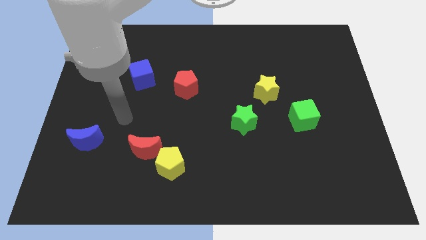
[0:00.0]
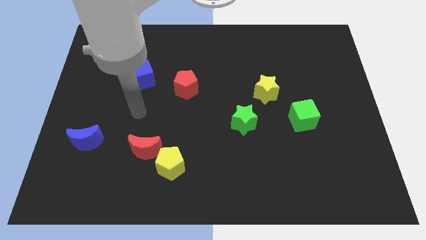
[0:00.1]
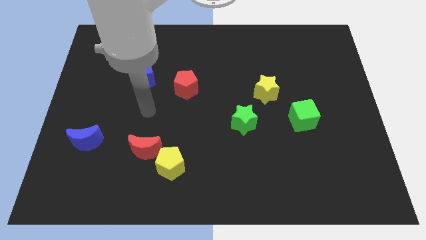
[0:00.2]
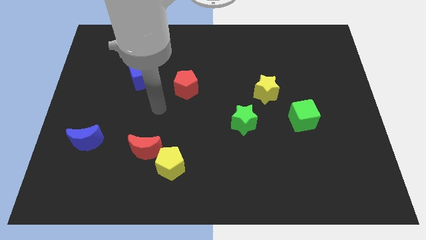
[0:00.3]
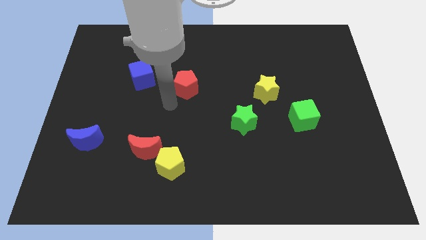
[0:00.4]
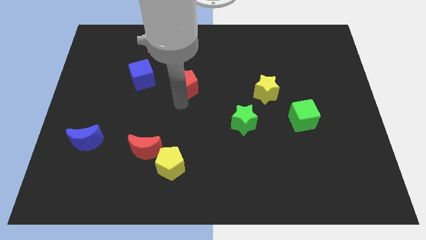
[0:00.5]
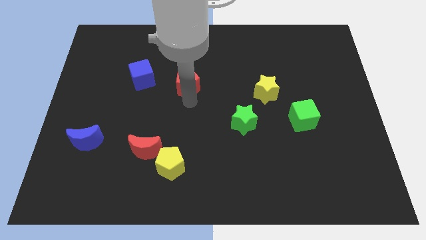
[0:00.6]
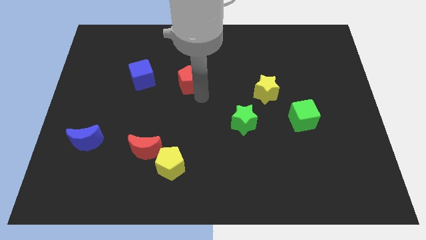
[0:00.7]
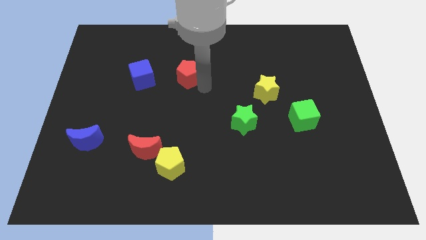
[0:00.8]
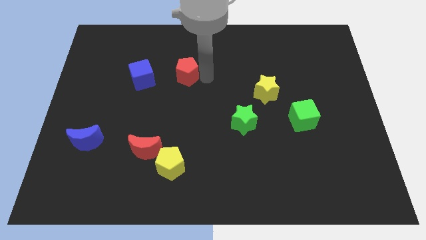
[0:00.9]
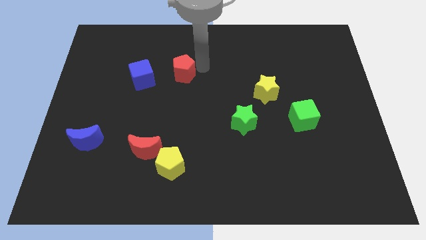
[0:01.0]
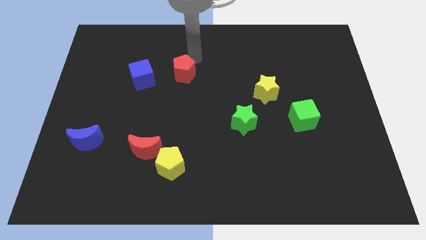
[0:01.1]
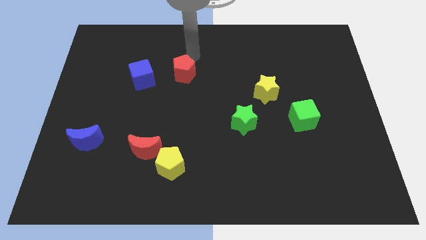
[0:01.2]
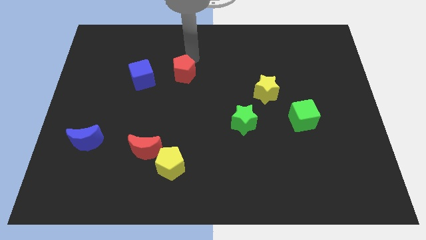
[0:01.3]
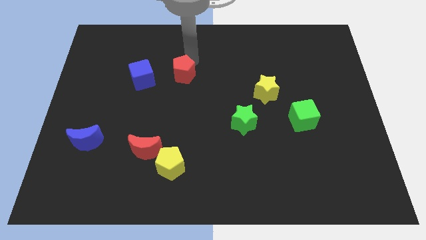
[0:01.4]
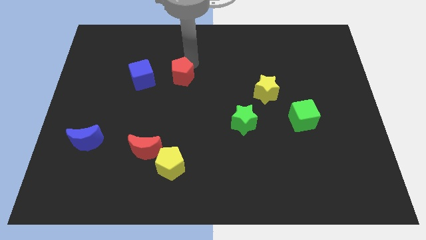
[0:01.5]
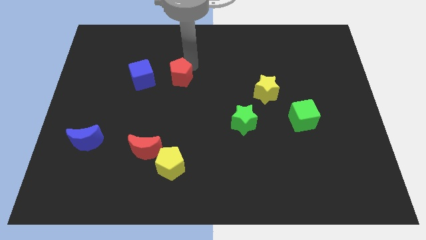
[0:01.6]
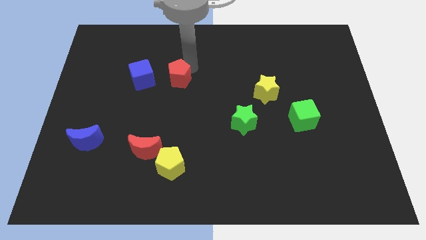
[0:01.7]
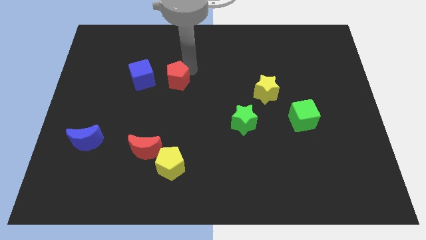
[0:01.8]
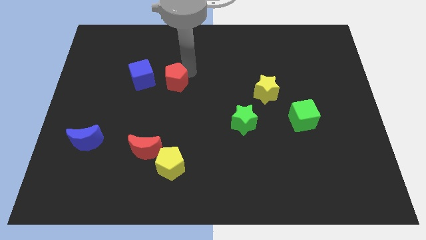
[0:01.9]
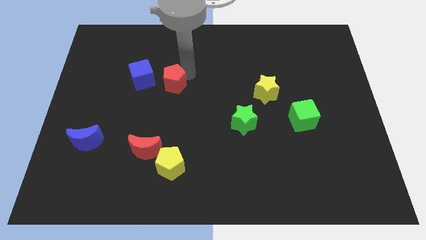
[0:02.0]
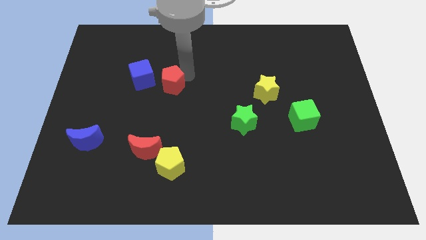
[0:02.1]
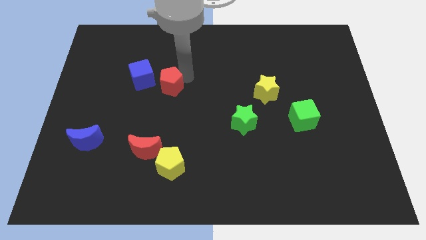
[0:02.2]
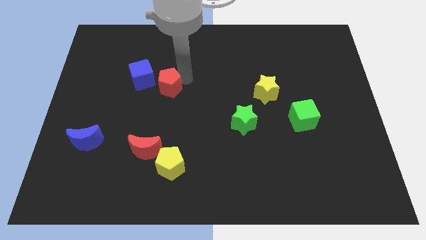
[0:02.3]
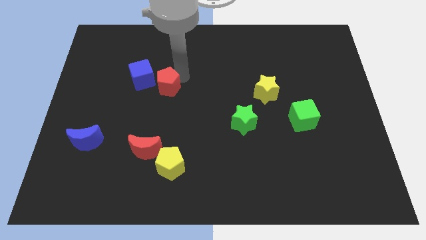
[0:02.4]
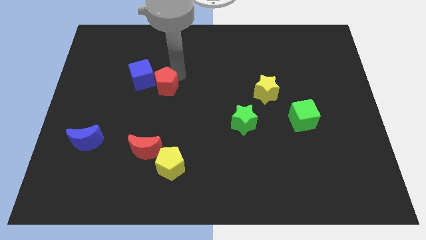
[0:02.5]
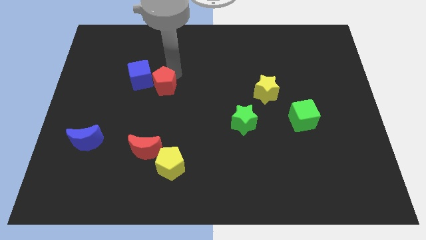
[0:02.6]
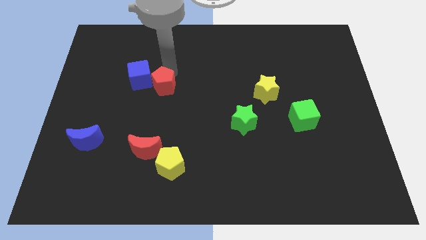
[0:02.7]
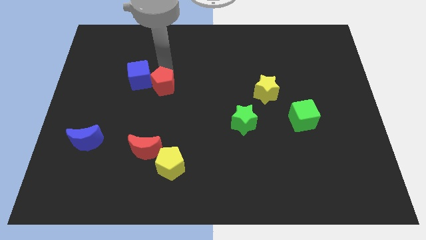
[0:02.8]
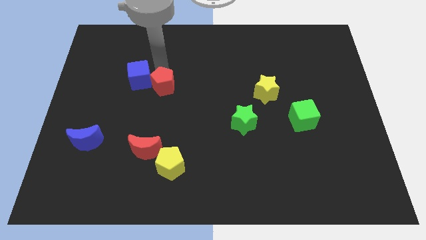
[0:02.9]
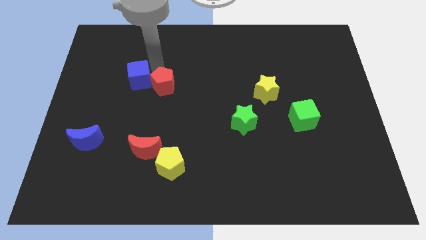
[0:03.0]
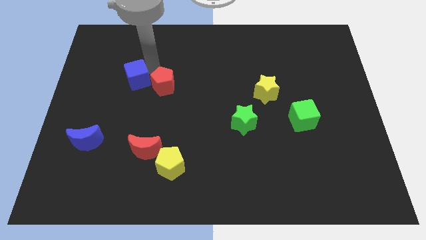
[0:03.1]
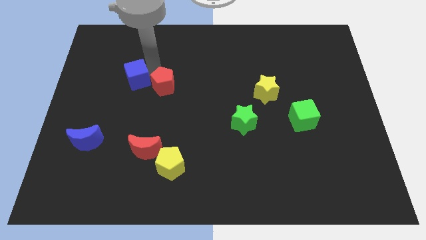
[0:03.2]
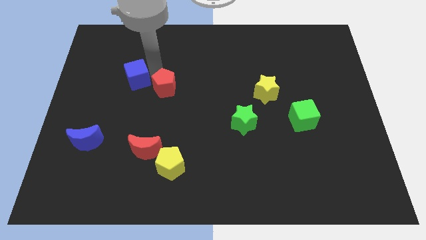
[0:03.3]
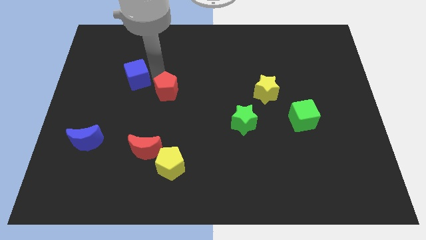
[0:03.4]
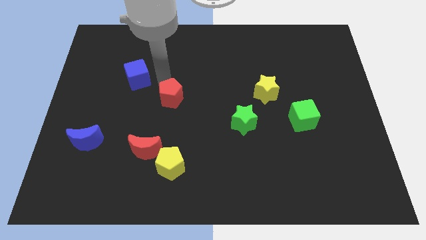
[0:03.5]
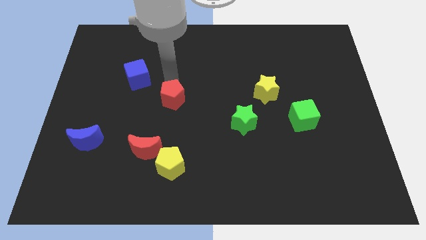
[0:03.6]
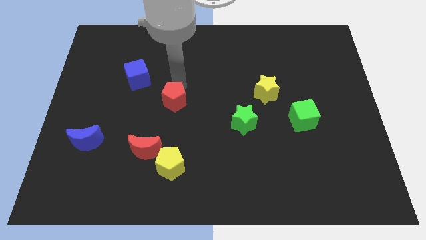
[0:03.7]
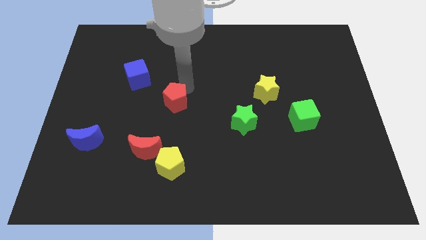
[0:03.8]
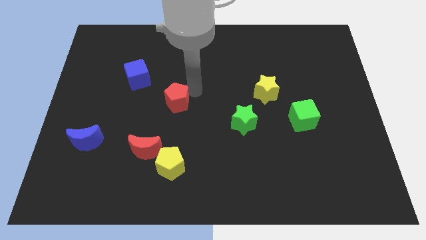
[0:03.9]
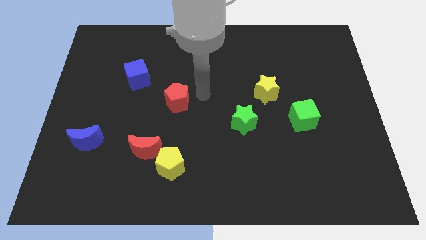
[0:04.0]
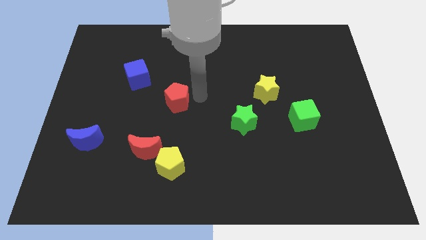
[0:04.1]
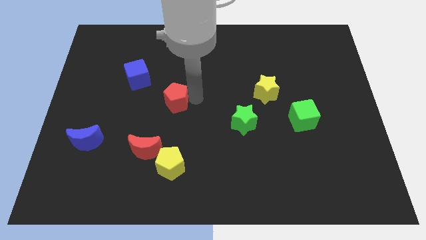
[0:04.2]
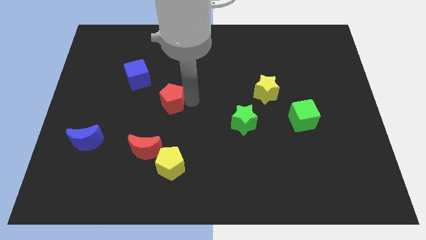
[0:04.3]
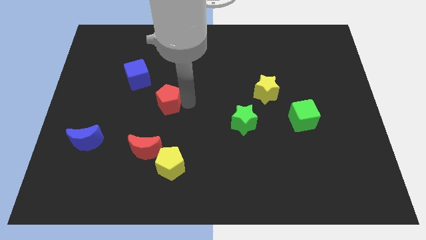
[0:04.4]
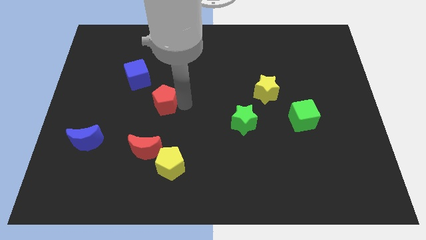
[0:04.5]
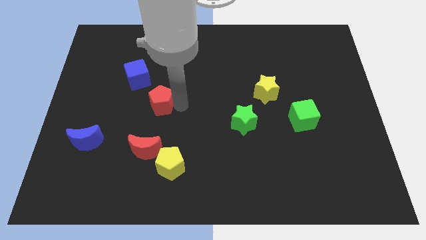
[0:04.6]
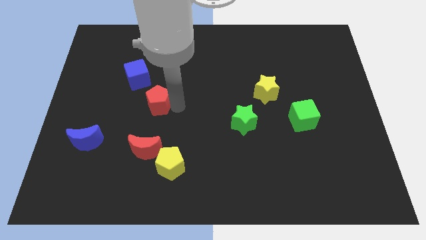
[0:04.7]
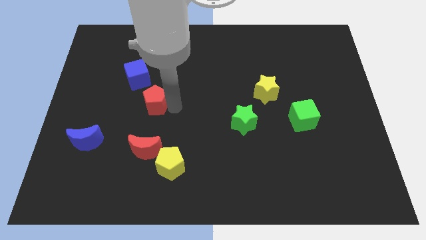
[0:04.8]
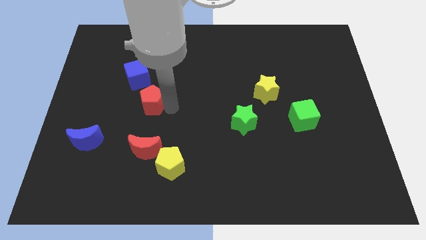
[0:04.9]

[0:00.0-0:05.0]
push the red pentagon to the bottom side of the blue cube

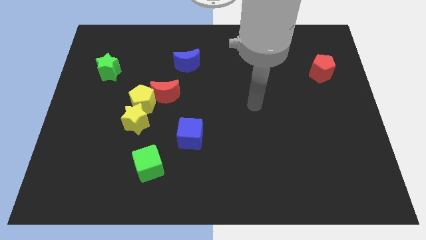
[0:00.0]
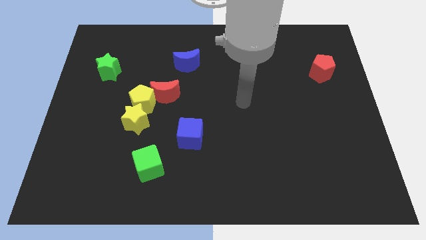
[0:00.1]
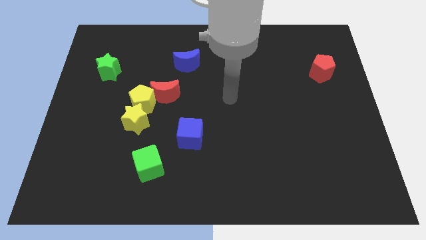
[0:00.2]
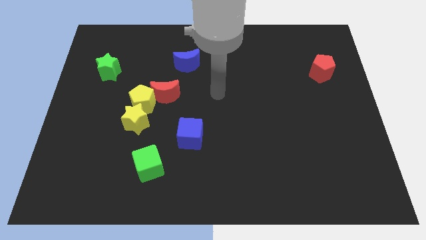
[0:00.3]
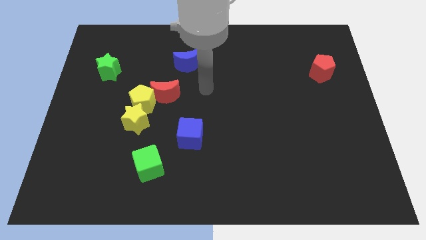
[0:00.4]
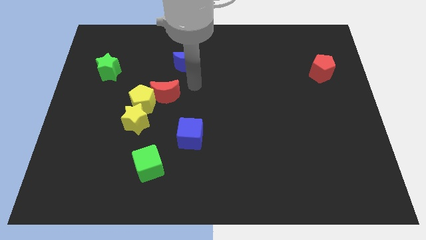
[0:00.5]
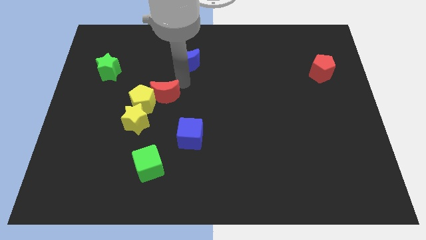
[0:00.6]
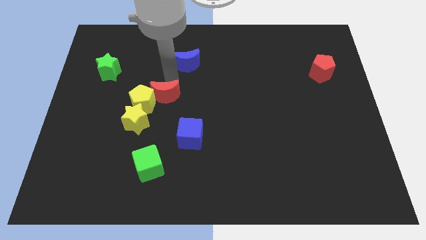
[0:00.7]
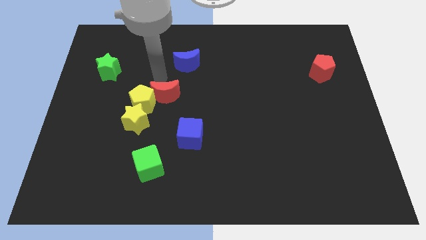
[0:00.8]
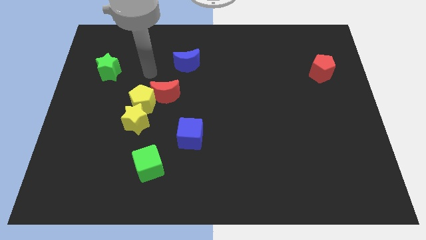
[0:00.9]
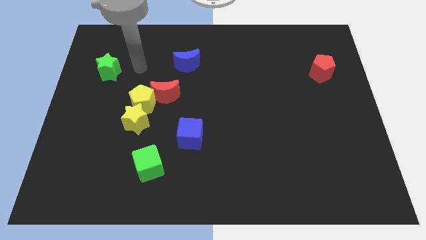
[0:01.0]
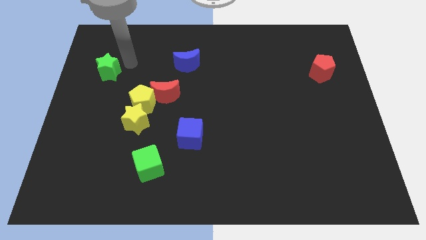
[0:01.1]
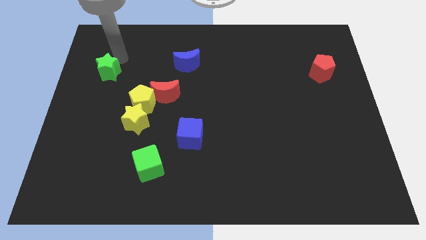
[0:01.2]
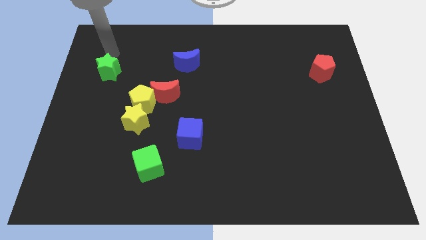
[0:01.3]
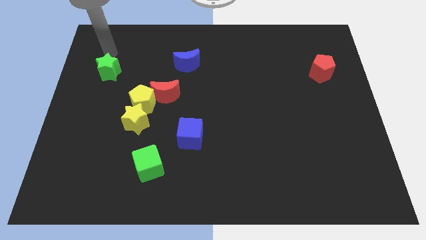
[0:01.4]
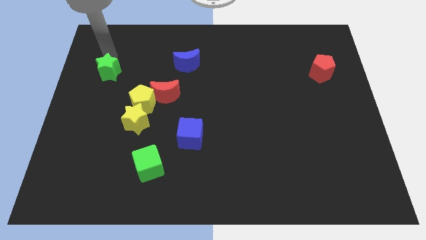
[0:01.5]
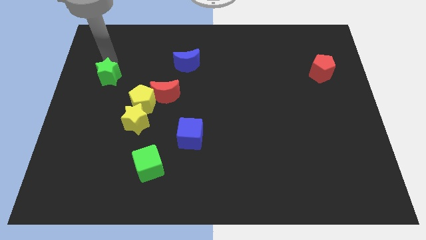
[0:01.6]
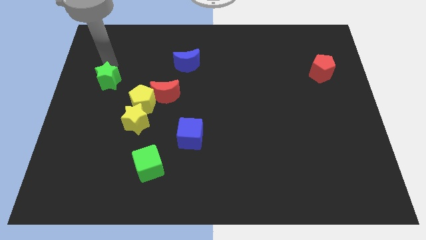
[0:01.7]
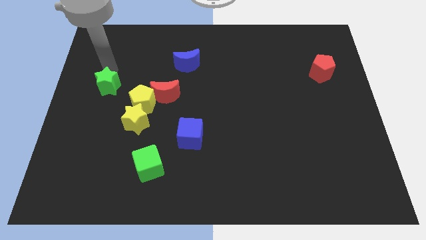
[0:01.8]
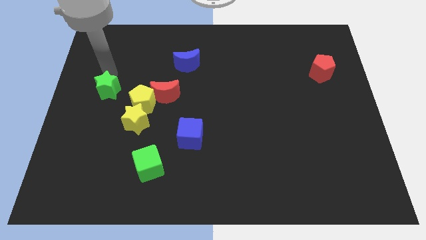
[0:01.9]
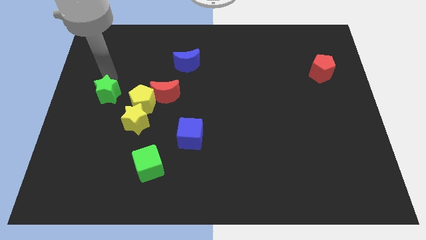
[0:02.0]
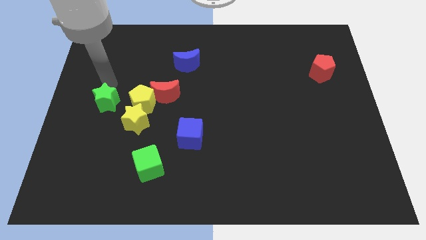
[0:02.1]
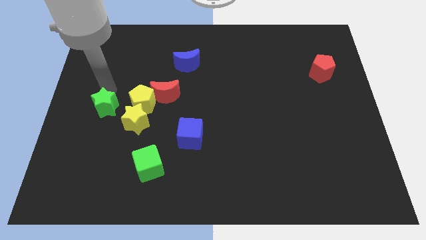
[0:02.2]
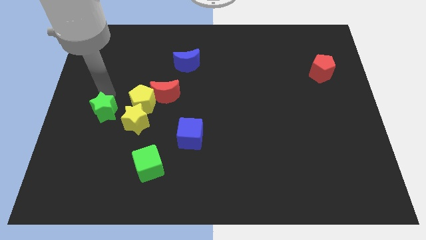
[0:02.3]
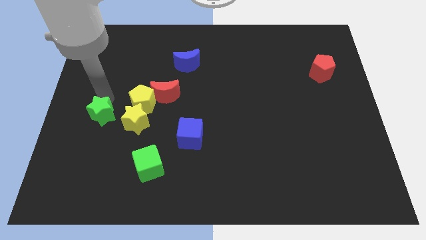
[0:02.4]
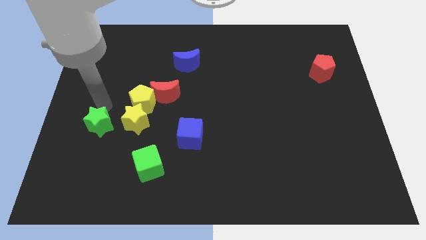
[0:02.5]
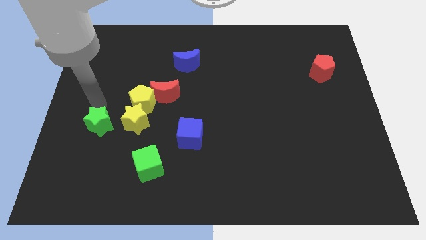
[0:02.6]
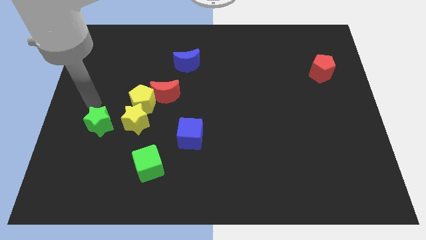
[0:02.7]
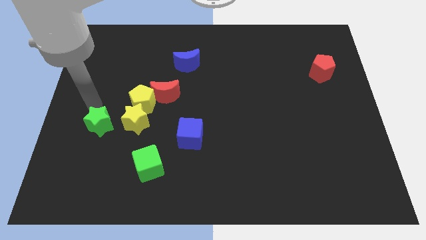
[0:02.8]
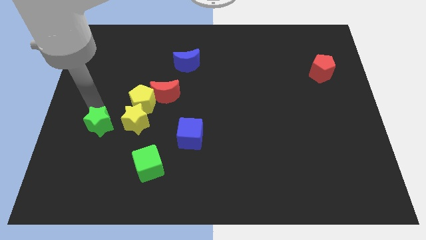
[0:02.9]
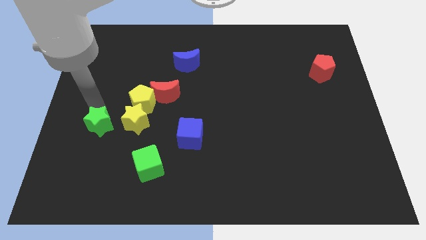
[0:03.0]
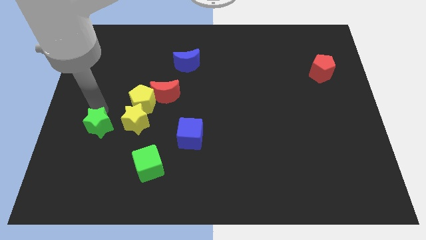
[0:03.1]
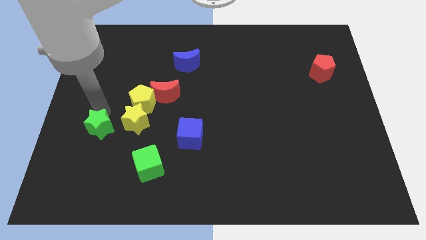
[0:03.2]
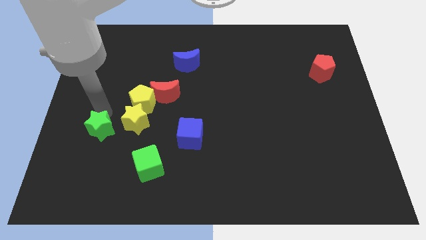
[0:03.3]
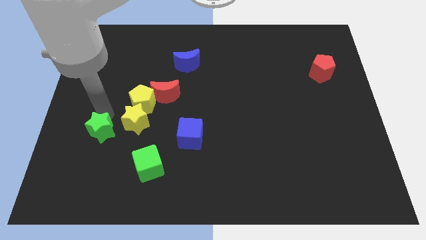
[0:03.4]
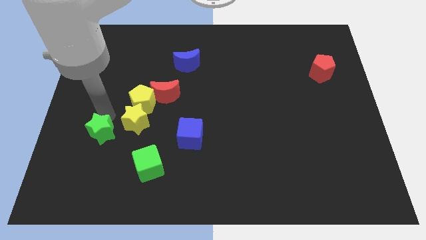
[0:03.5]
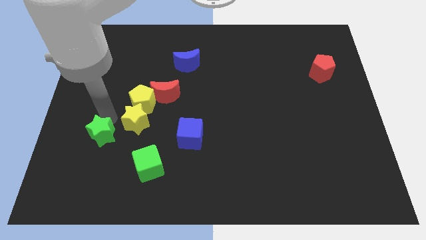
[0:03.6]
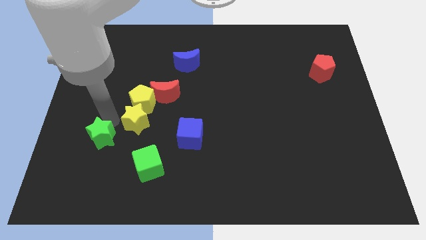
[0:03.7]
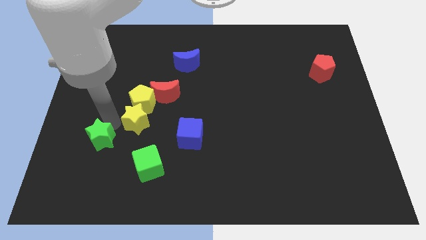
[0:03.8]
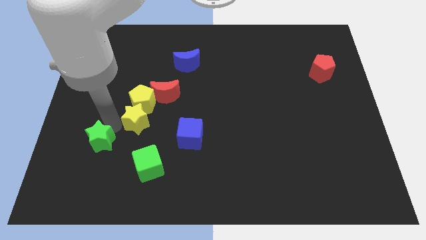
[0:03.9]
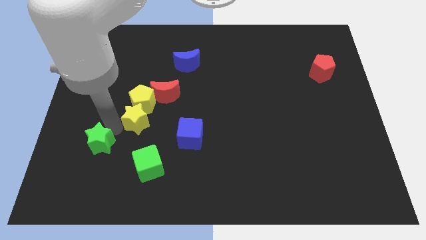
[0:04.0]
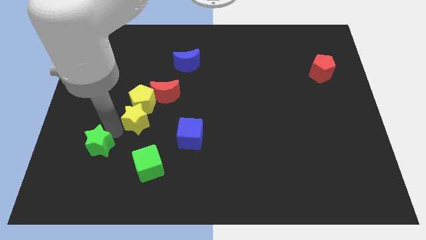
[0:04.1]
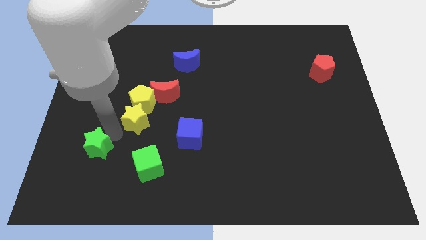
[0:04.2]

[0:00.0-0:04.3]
move the green star to the left side of the green cube
